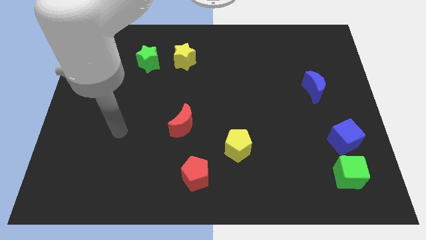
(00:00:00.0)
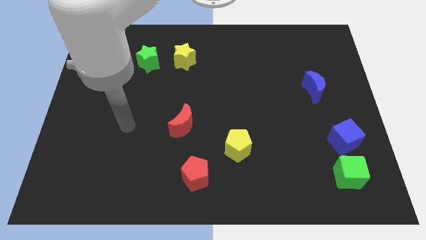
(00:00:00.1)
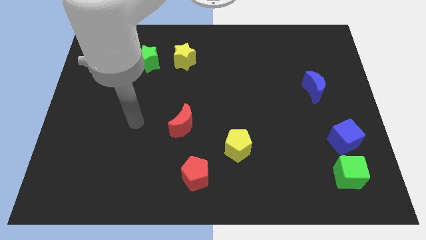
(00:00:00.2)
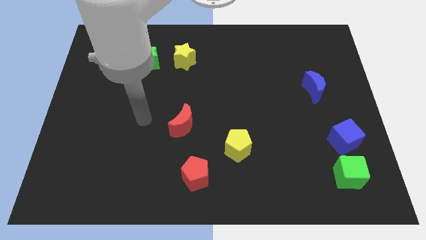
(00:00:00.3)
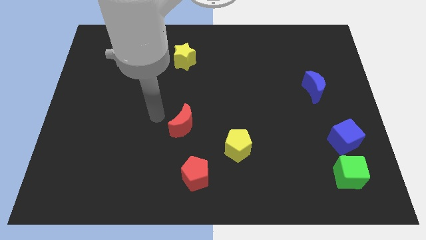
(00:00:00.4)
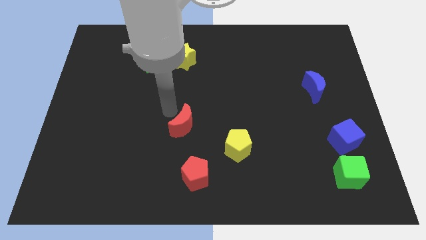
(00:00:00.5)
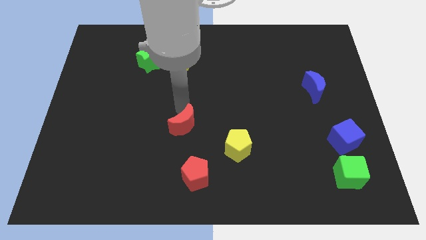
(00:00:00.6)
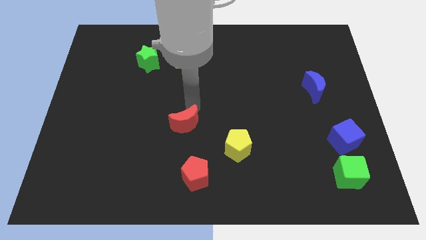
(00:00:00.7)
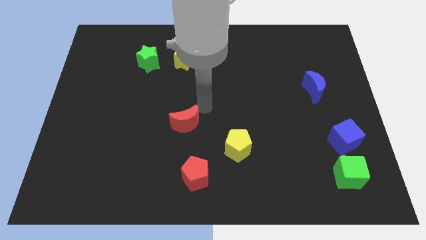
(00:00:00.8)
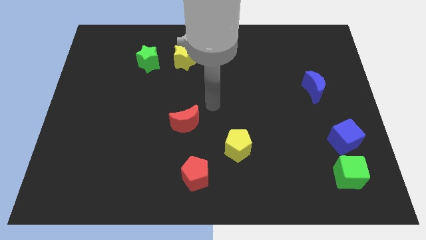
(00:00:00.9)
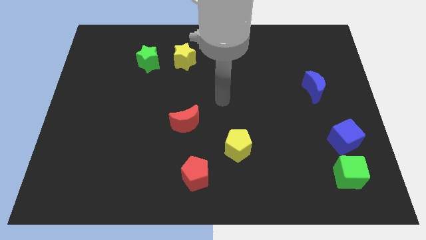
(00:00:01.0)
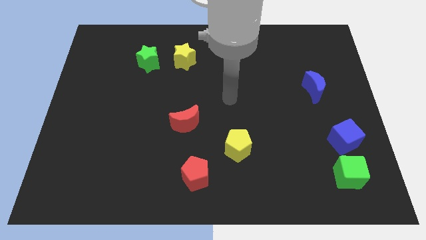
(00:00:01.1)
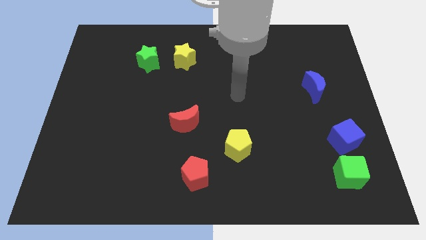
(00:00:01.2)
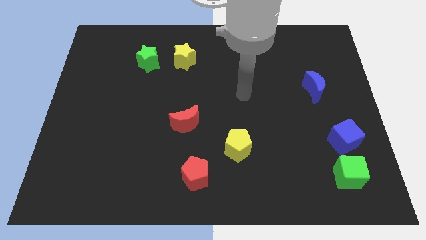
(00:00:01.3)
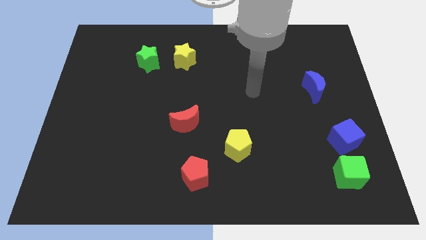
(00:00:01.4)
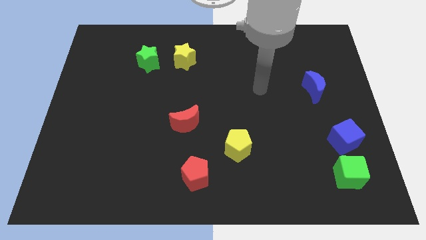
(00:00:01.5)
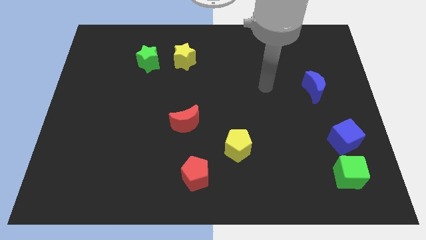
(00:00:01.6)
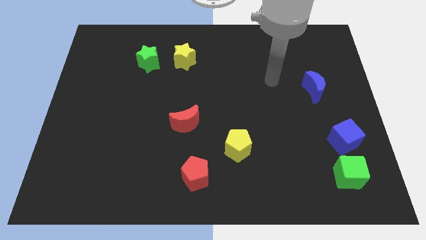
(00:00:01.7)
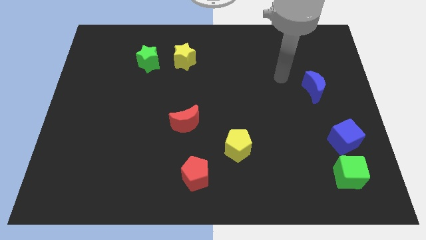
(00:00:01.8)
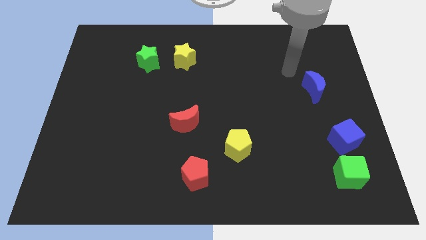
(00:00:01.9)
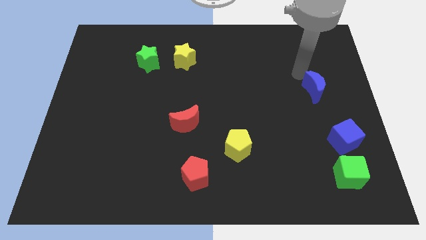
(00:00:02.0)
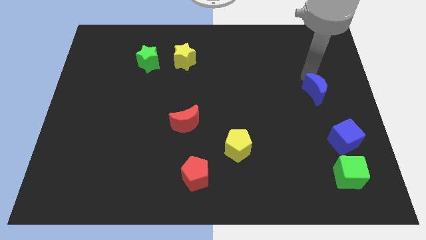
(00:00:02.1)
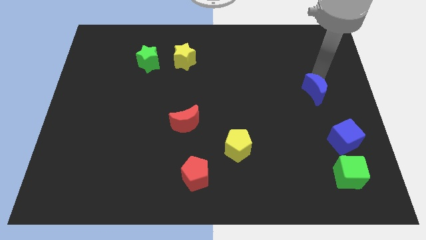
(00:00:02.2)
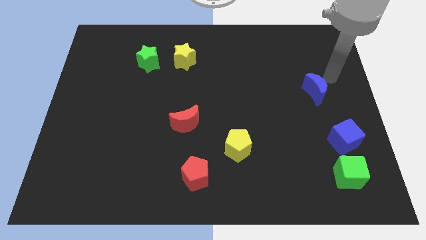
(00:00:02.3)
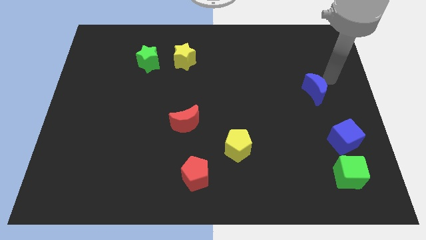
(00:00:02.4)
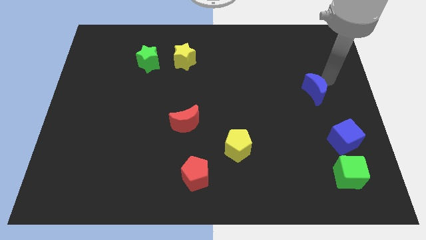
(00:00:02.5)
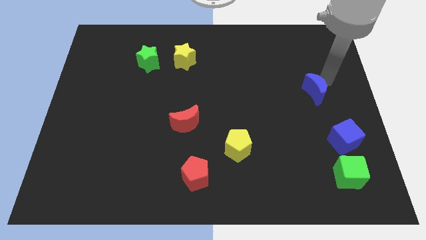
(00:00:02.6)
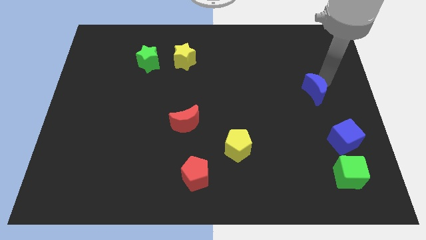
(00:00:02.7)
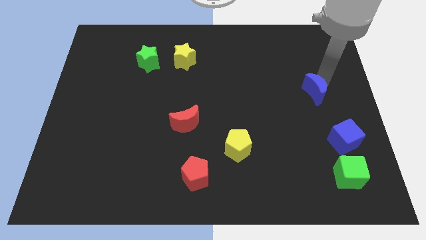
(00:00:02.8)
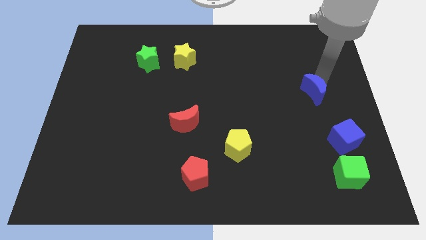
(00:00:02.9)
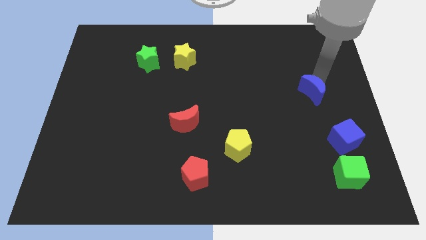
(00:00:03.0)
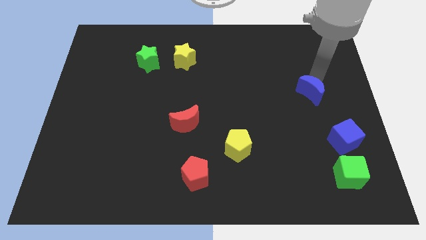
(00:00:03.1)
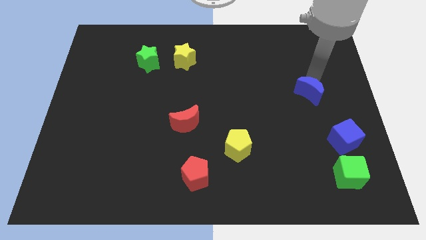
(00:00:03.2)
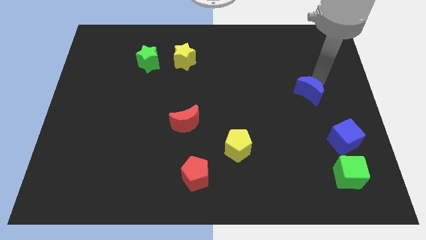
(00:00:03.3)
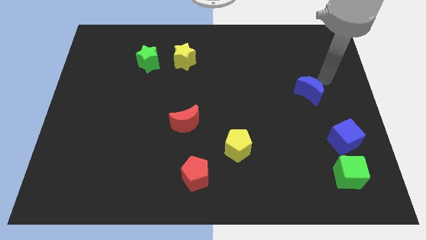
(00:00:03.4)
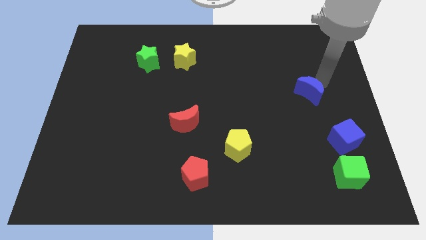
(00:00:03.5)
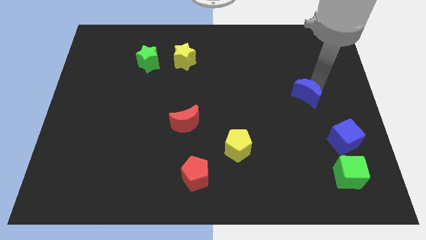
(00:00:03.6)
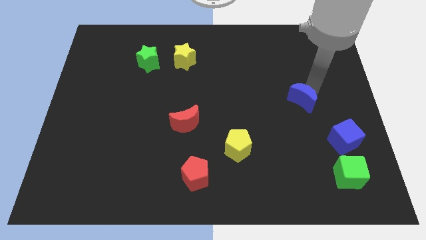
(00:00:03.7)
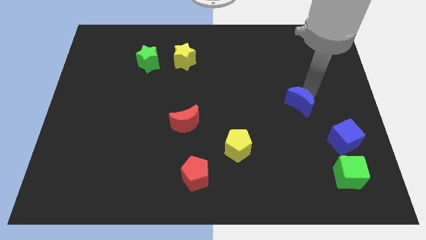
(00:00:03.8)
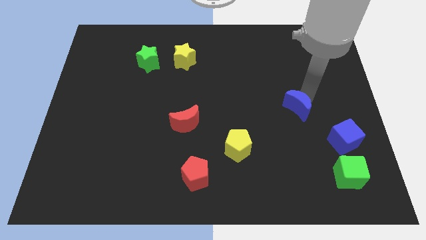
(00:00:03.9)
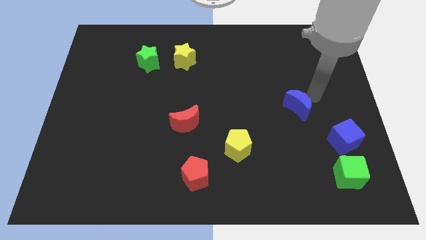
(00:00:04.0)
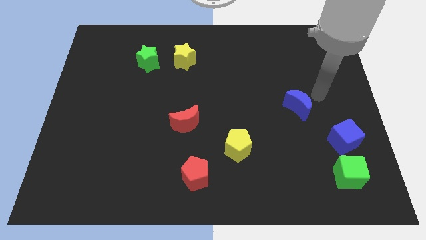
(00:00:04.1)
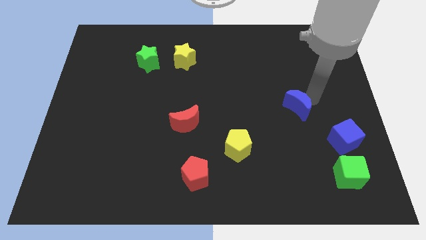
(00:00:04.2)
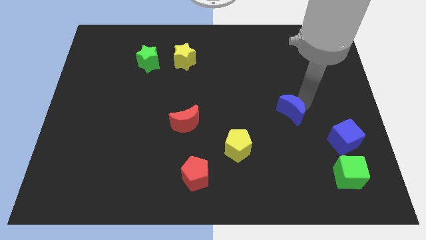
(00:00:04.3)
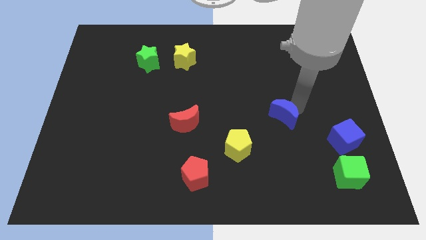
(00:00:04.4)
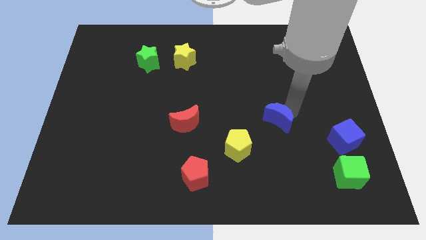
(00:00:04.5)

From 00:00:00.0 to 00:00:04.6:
move the blue moon to the top right of the yellow pentagon

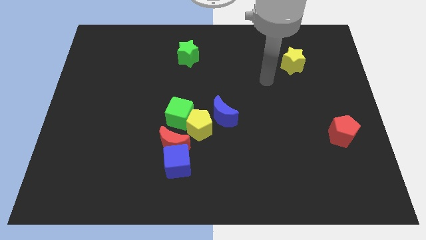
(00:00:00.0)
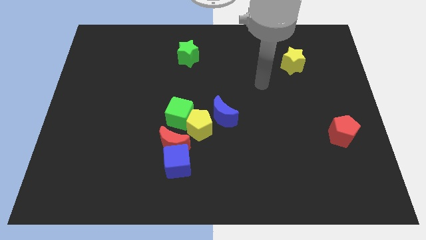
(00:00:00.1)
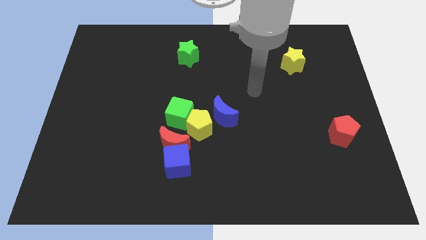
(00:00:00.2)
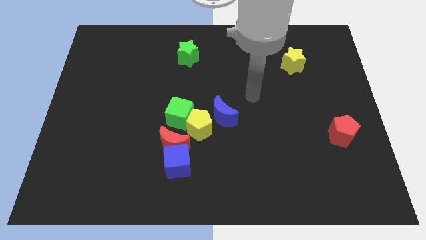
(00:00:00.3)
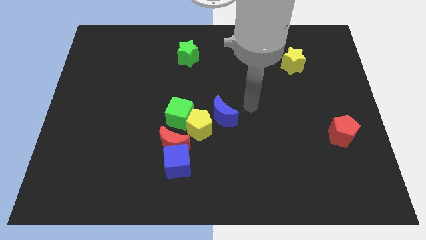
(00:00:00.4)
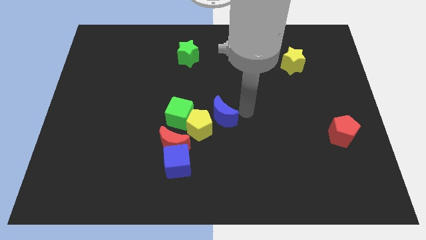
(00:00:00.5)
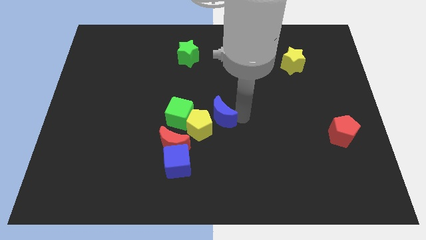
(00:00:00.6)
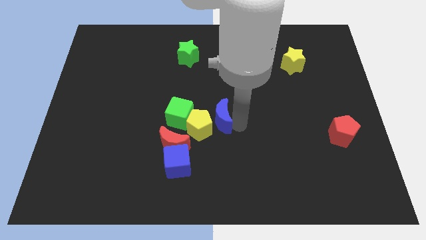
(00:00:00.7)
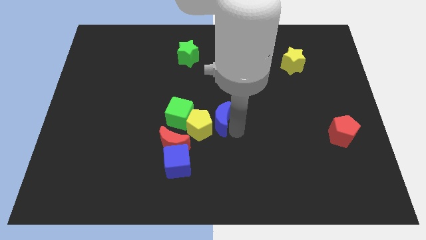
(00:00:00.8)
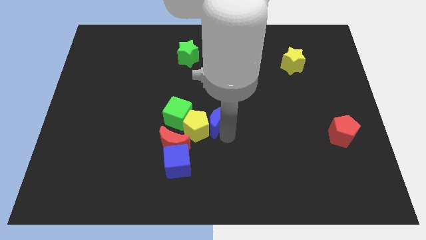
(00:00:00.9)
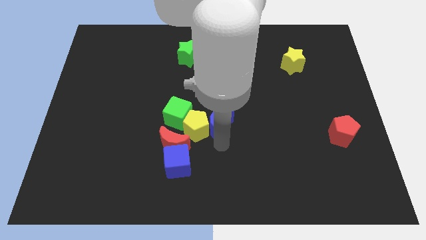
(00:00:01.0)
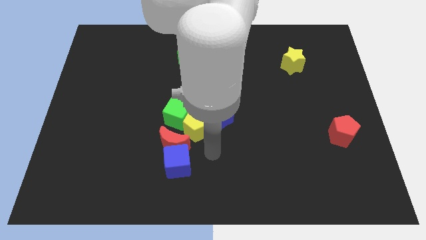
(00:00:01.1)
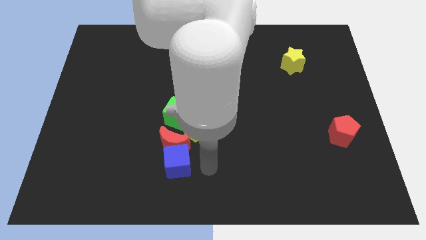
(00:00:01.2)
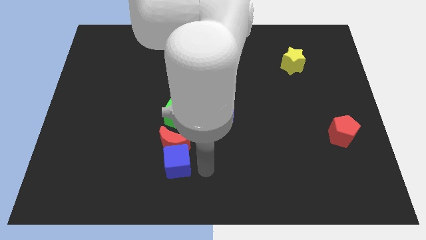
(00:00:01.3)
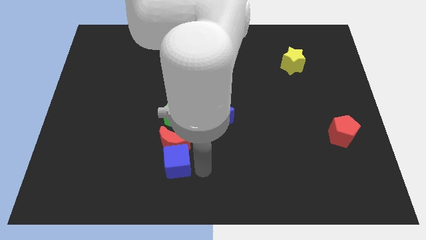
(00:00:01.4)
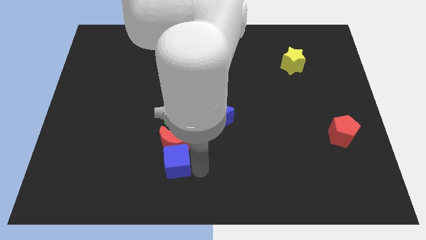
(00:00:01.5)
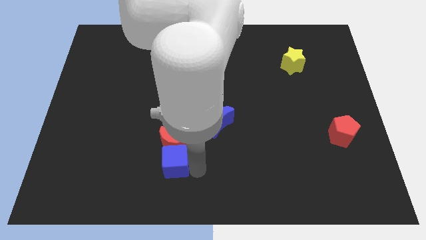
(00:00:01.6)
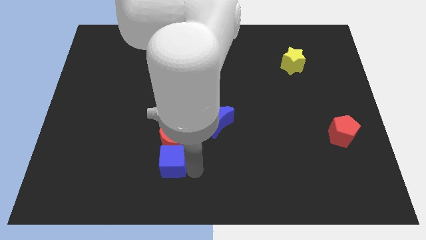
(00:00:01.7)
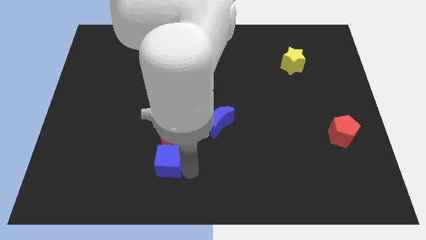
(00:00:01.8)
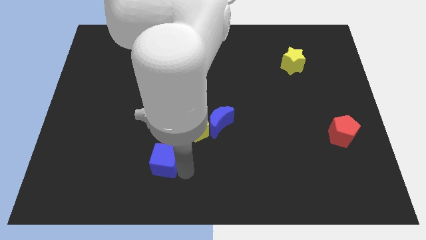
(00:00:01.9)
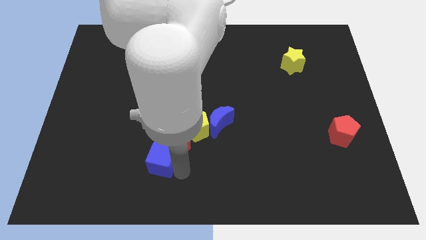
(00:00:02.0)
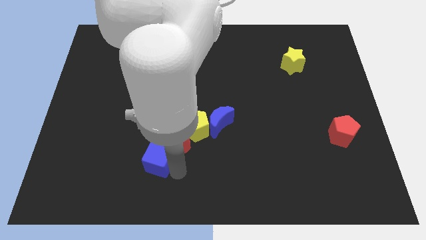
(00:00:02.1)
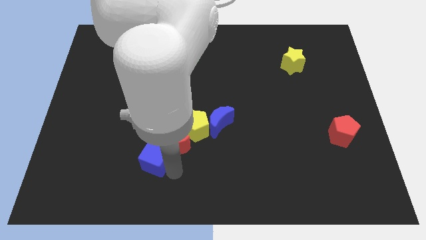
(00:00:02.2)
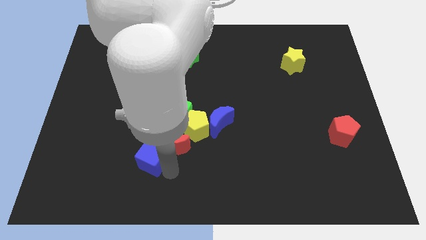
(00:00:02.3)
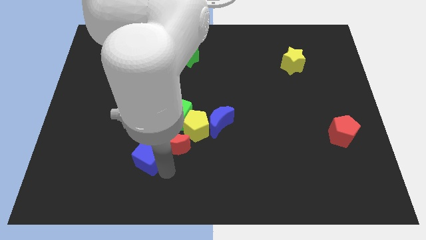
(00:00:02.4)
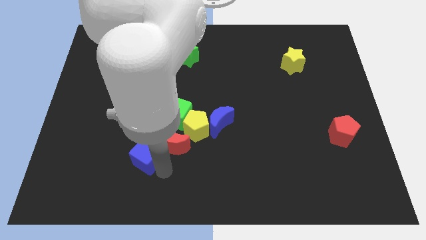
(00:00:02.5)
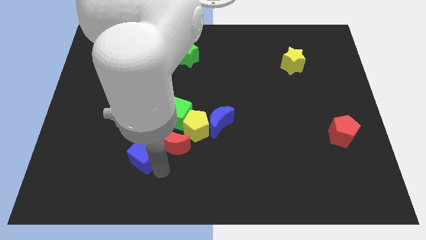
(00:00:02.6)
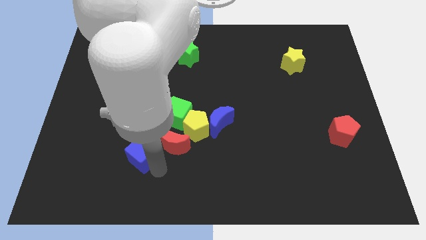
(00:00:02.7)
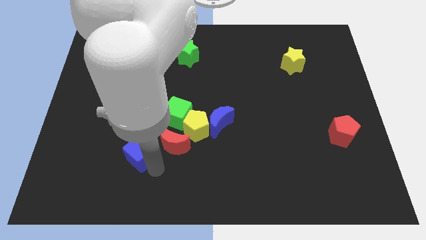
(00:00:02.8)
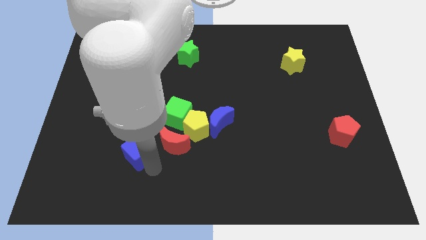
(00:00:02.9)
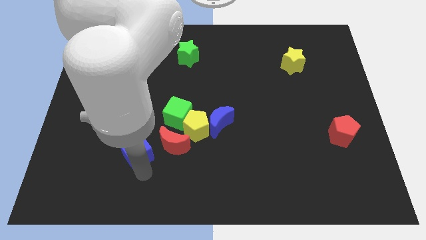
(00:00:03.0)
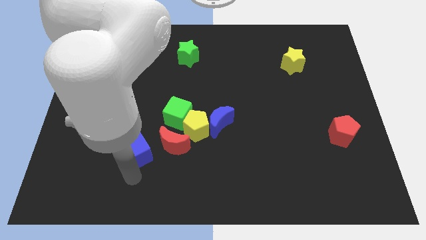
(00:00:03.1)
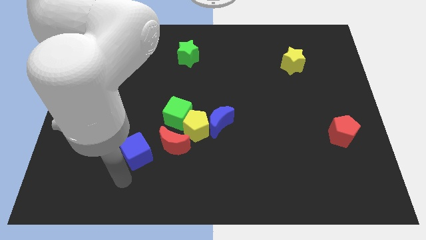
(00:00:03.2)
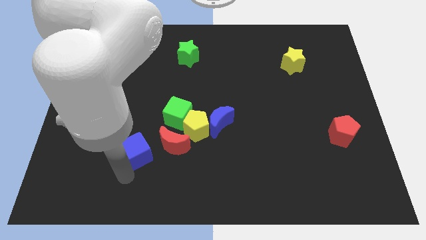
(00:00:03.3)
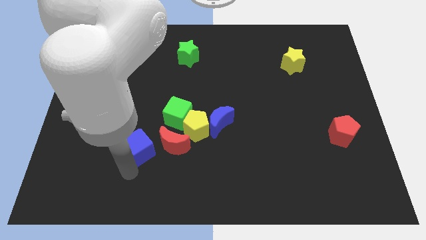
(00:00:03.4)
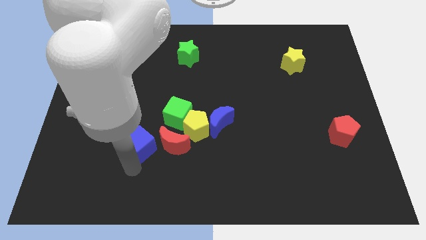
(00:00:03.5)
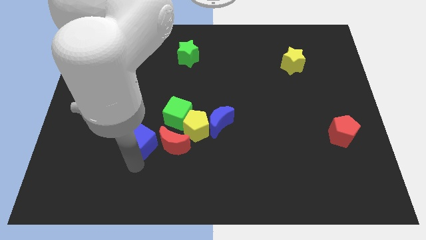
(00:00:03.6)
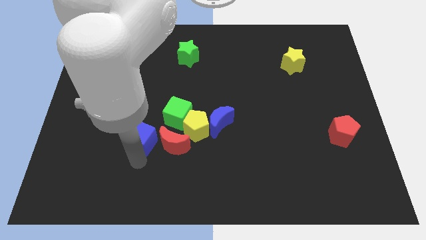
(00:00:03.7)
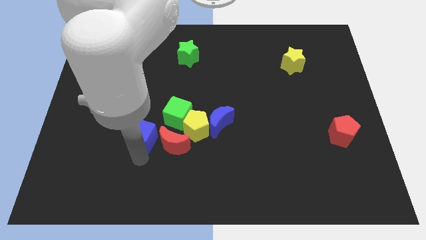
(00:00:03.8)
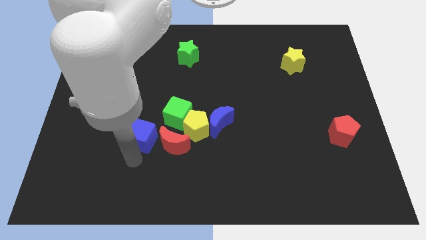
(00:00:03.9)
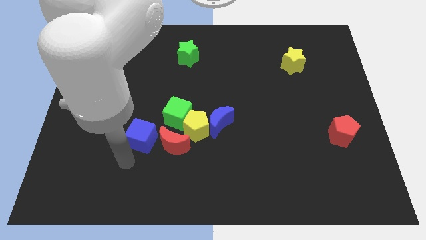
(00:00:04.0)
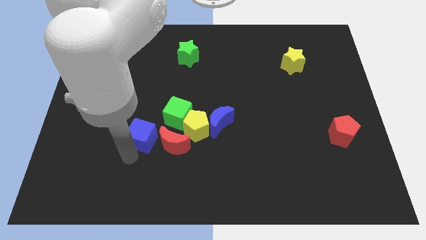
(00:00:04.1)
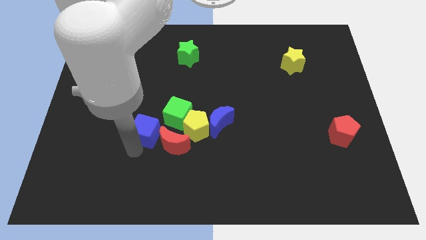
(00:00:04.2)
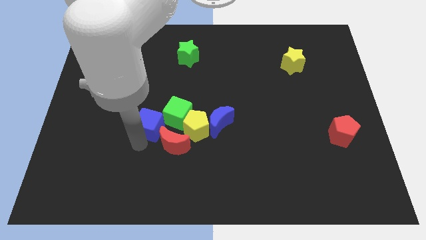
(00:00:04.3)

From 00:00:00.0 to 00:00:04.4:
move the blue cube to the left of the blue moon
